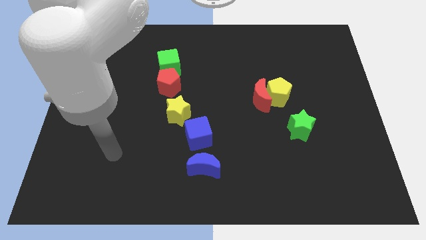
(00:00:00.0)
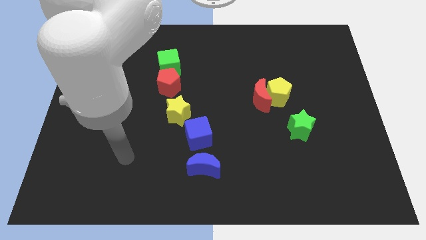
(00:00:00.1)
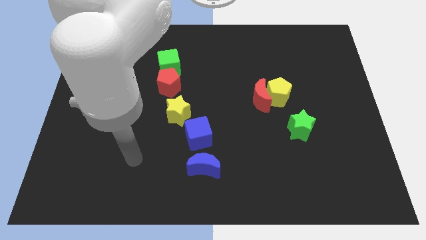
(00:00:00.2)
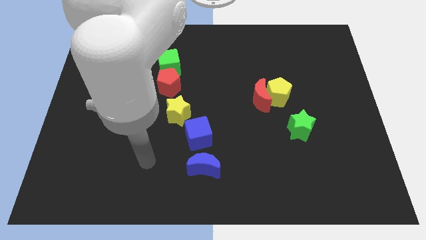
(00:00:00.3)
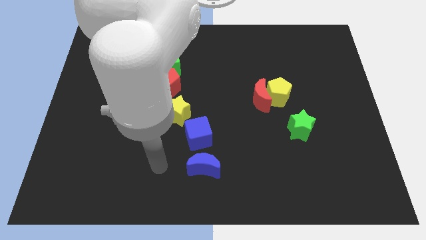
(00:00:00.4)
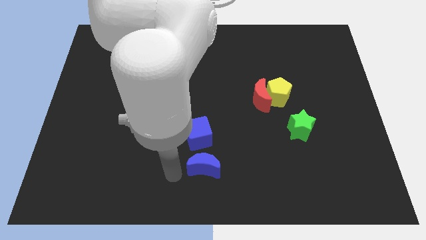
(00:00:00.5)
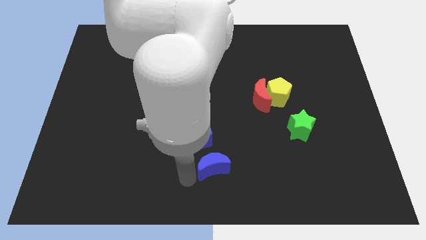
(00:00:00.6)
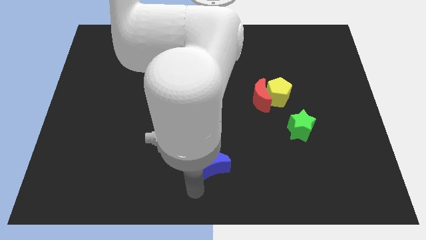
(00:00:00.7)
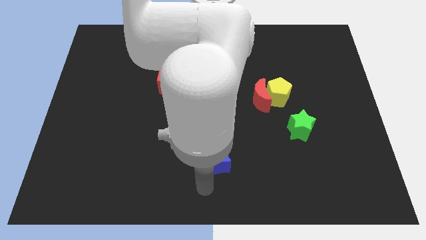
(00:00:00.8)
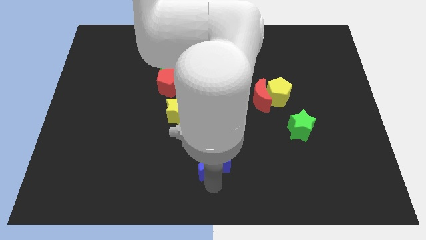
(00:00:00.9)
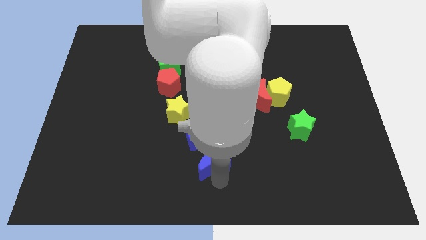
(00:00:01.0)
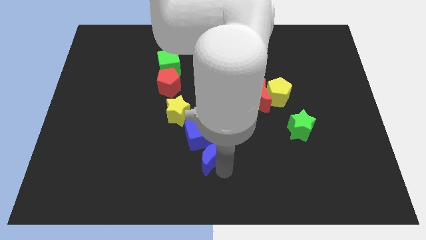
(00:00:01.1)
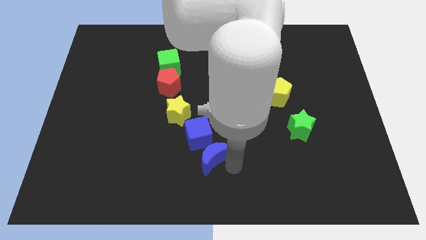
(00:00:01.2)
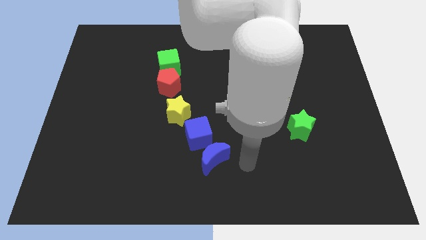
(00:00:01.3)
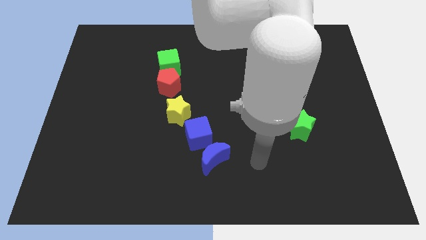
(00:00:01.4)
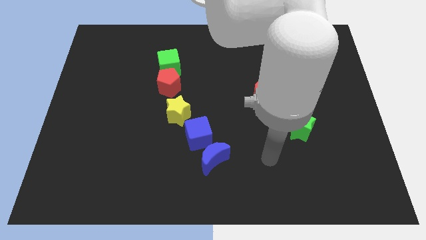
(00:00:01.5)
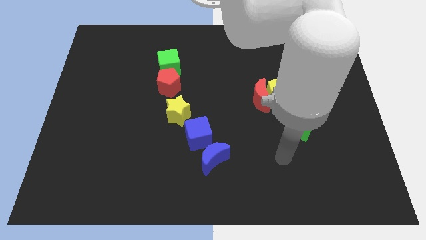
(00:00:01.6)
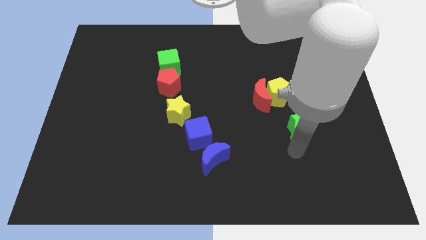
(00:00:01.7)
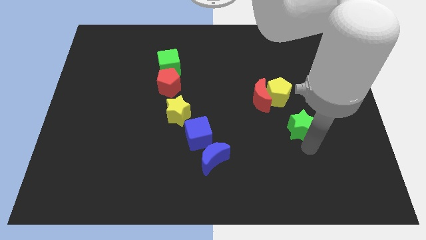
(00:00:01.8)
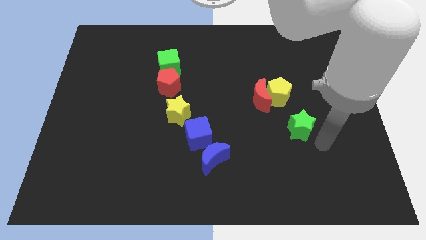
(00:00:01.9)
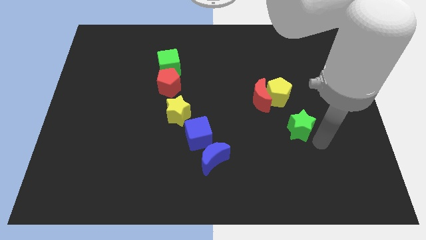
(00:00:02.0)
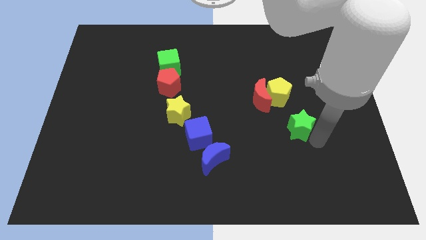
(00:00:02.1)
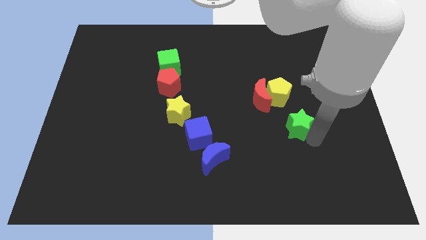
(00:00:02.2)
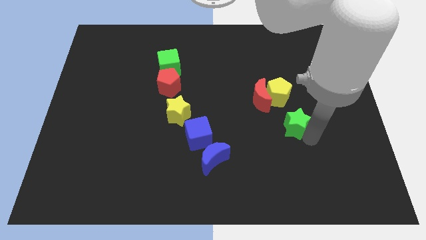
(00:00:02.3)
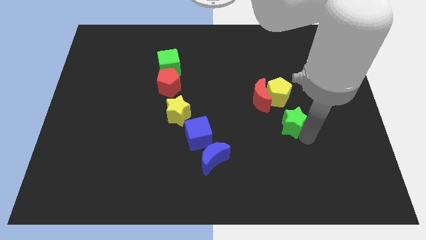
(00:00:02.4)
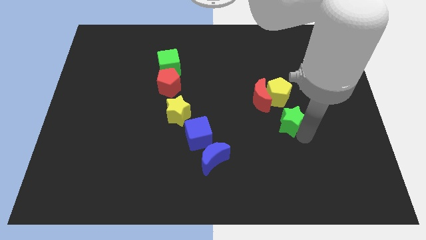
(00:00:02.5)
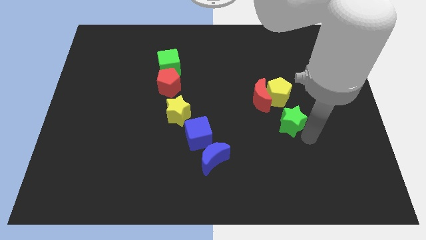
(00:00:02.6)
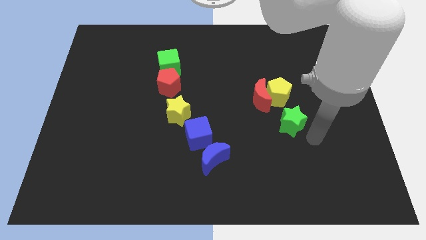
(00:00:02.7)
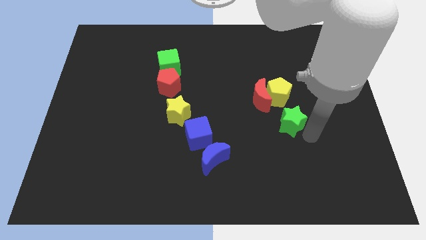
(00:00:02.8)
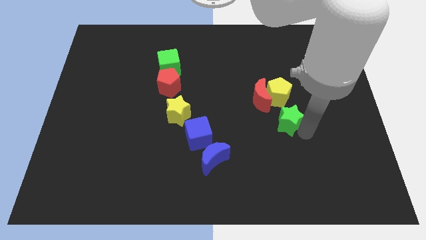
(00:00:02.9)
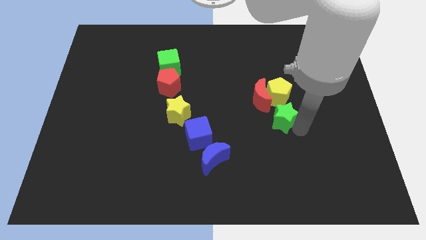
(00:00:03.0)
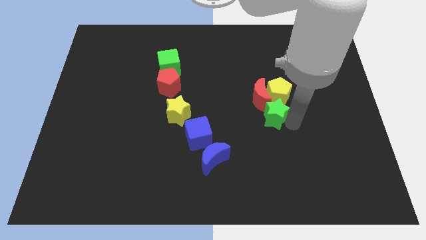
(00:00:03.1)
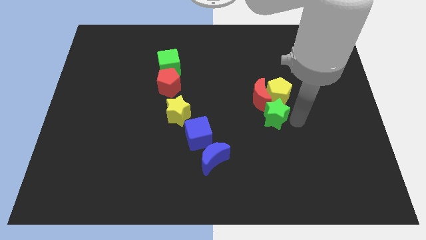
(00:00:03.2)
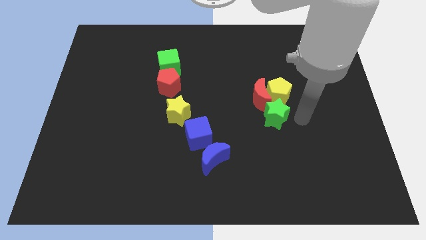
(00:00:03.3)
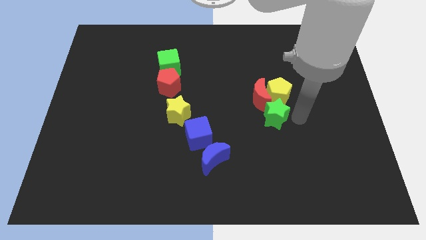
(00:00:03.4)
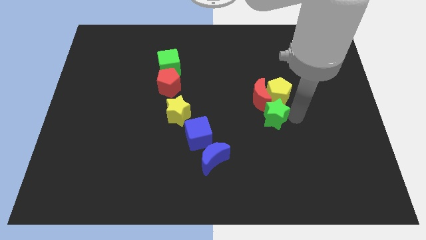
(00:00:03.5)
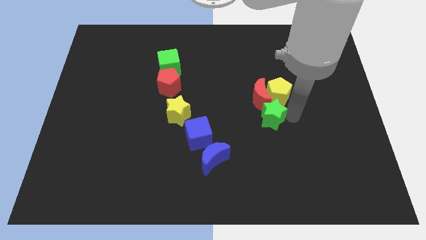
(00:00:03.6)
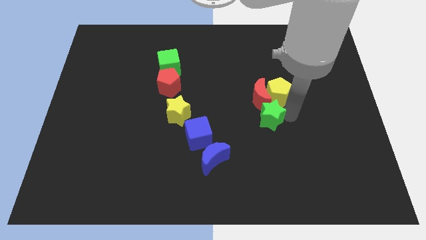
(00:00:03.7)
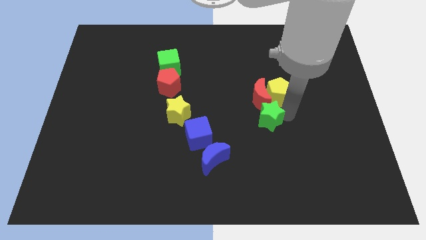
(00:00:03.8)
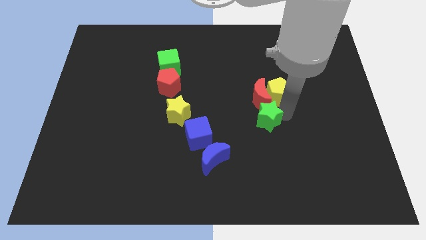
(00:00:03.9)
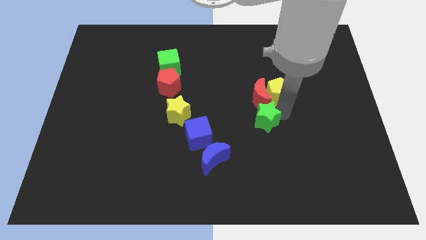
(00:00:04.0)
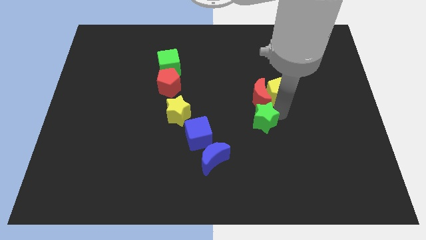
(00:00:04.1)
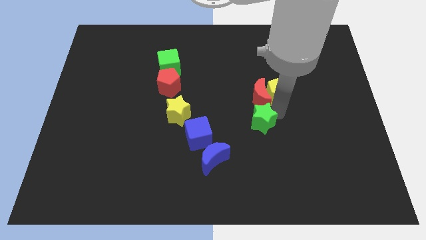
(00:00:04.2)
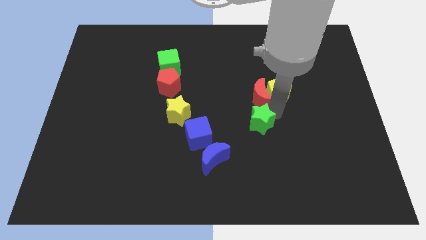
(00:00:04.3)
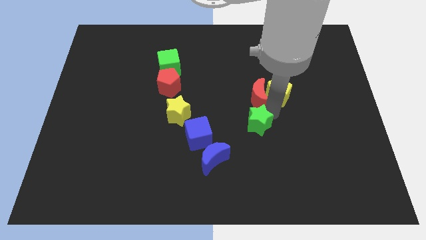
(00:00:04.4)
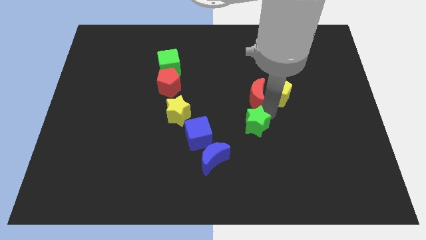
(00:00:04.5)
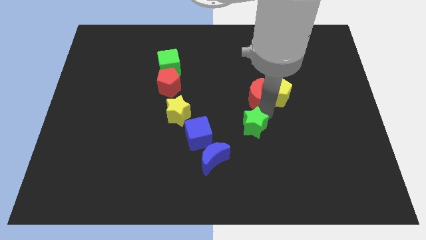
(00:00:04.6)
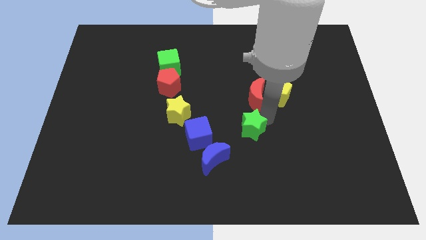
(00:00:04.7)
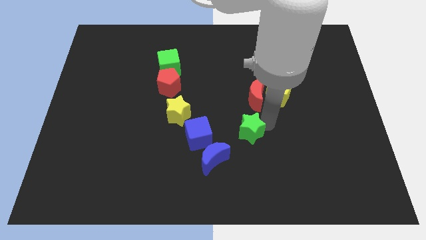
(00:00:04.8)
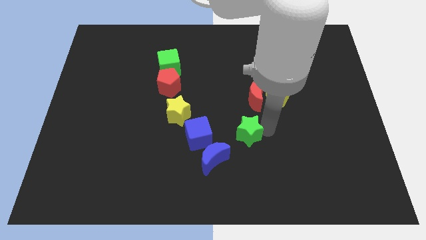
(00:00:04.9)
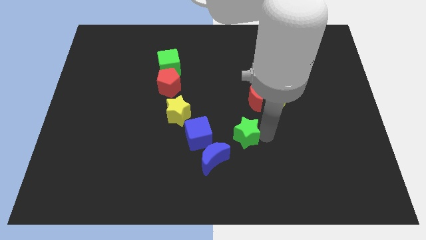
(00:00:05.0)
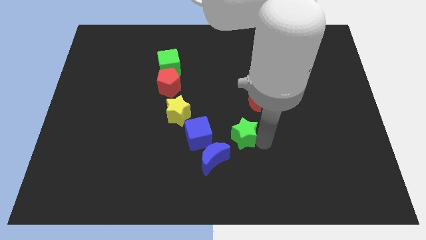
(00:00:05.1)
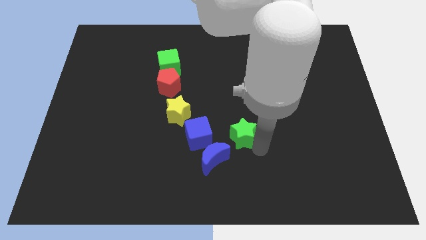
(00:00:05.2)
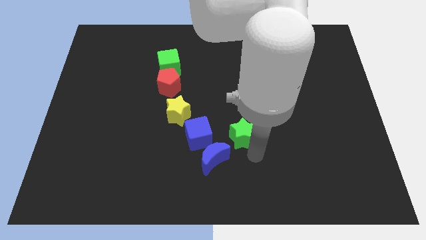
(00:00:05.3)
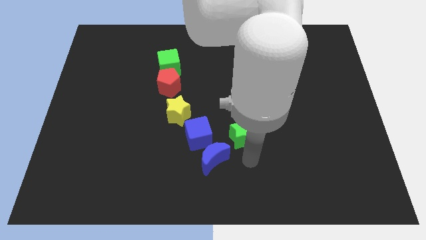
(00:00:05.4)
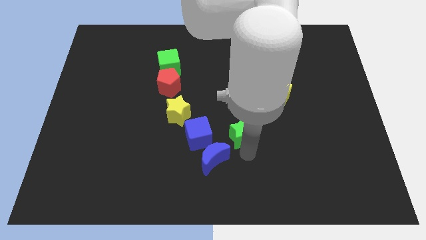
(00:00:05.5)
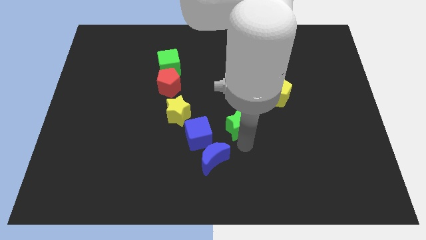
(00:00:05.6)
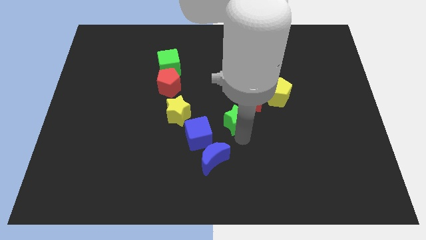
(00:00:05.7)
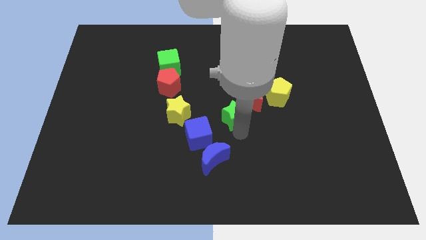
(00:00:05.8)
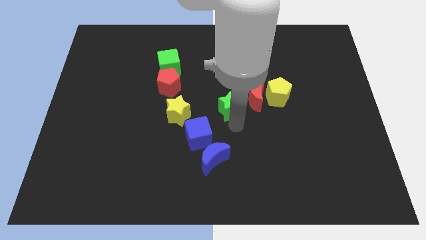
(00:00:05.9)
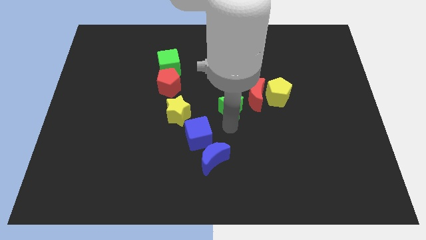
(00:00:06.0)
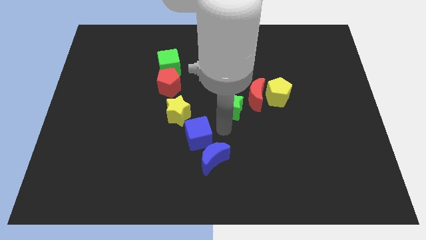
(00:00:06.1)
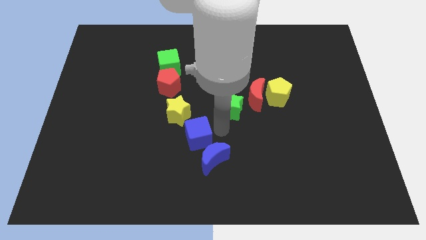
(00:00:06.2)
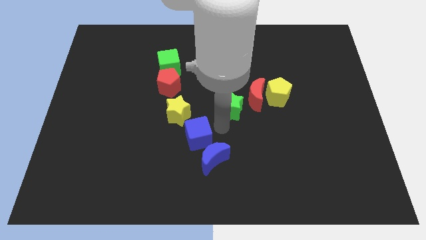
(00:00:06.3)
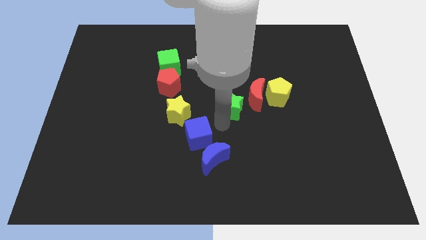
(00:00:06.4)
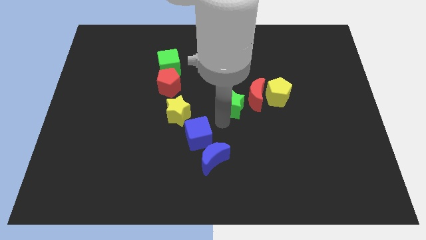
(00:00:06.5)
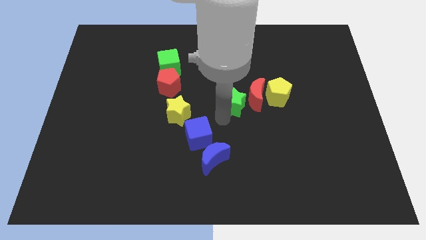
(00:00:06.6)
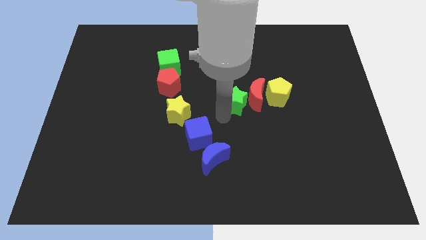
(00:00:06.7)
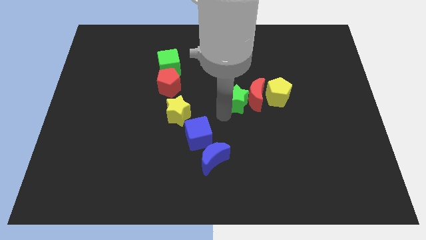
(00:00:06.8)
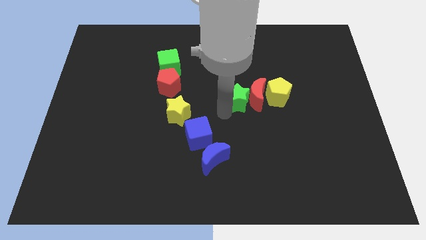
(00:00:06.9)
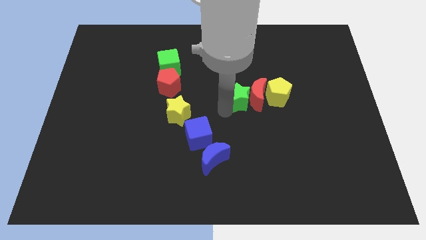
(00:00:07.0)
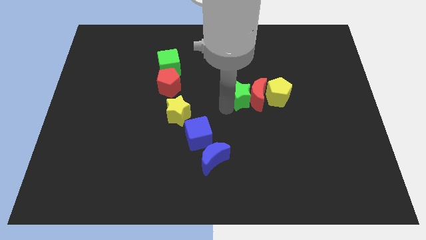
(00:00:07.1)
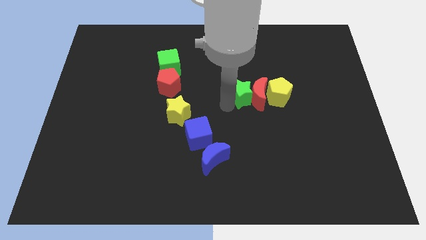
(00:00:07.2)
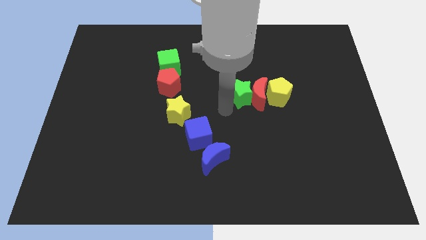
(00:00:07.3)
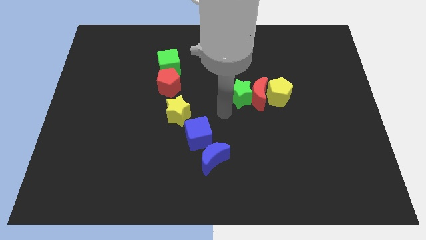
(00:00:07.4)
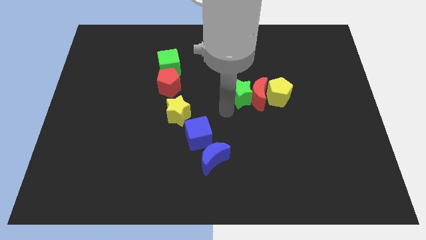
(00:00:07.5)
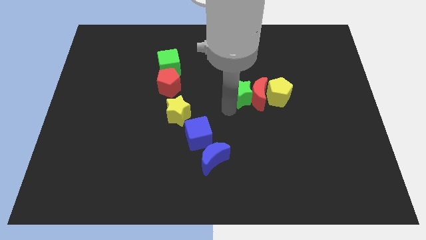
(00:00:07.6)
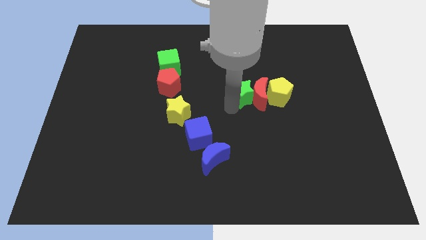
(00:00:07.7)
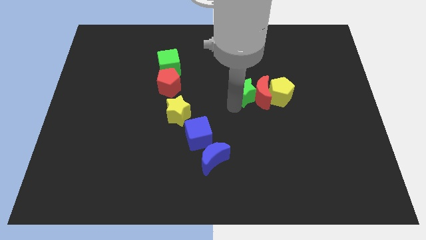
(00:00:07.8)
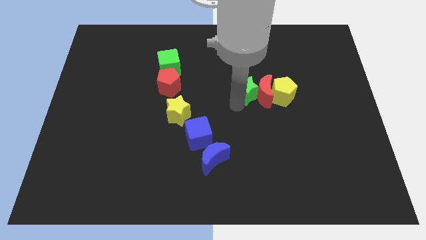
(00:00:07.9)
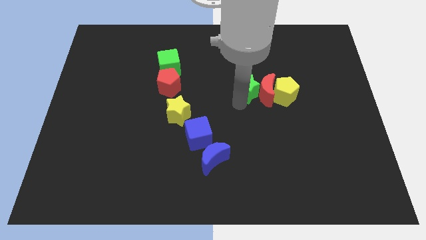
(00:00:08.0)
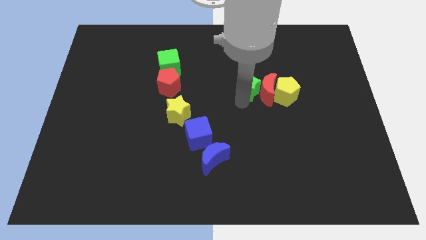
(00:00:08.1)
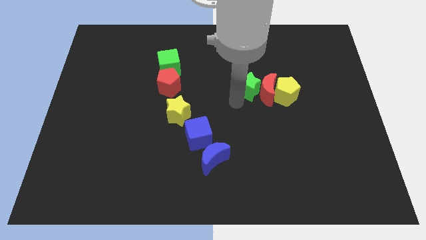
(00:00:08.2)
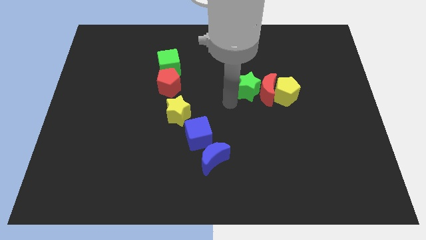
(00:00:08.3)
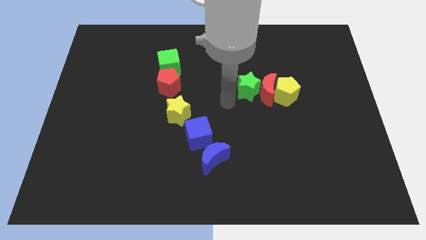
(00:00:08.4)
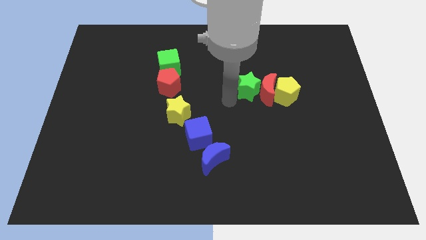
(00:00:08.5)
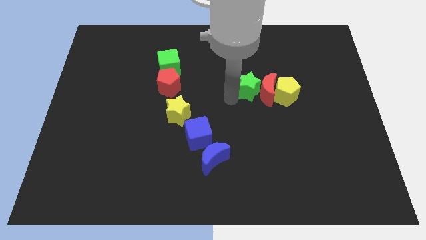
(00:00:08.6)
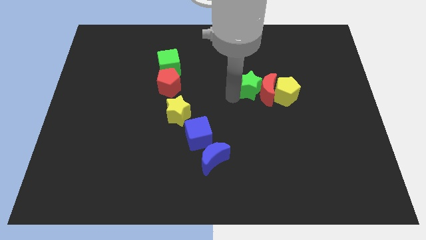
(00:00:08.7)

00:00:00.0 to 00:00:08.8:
slide the green star to the top left side of the yellow pentagon
